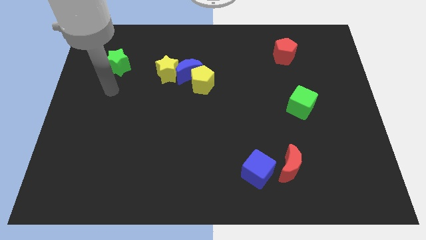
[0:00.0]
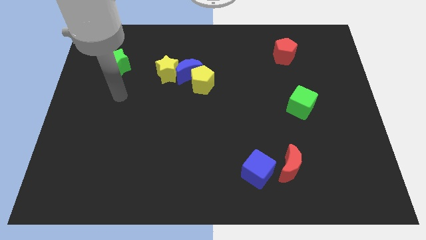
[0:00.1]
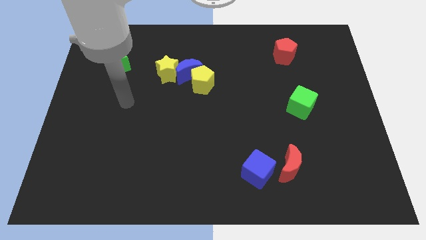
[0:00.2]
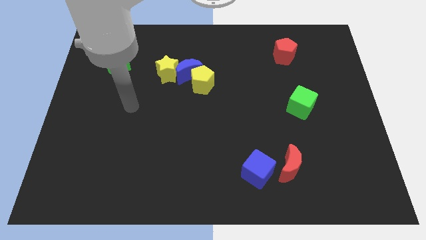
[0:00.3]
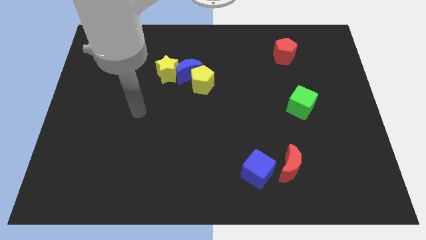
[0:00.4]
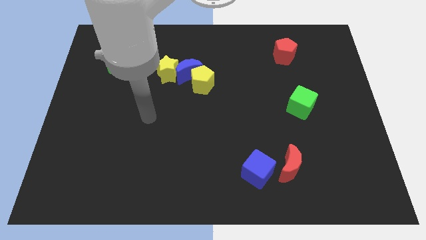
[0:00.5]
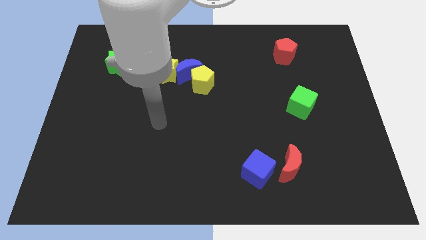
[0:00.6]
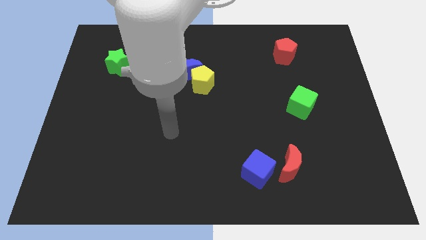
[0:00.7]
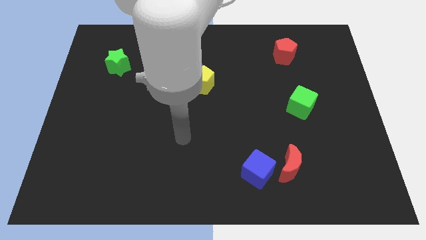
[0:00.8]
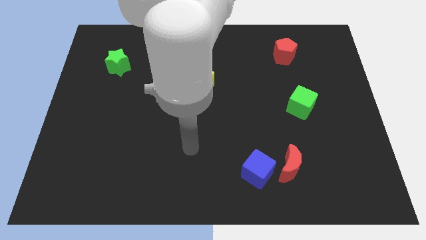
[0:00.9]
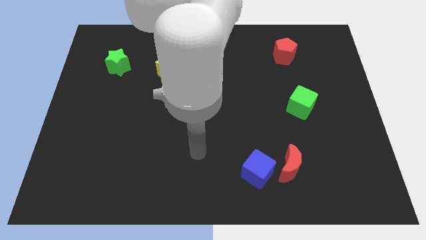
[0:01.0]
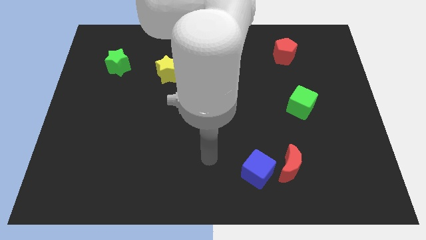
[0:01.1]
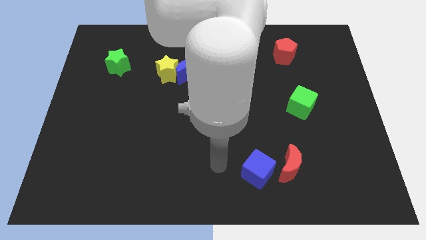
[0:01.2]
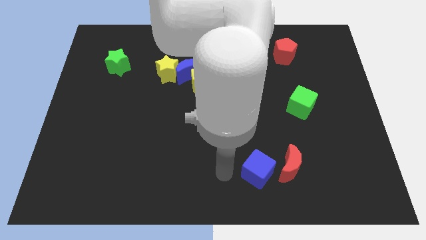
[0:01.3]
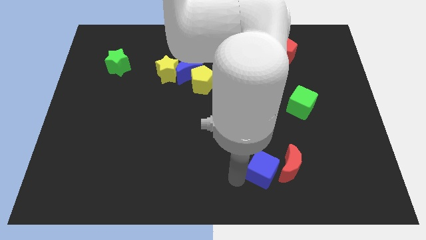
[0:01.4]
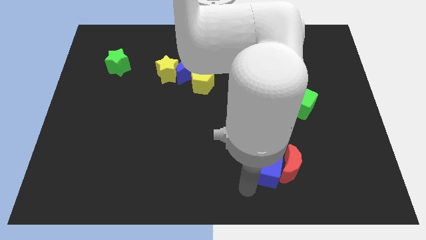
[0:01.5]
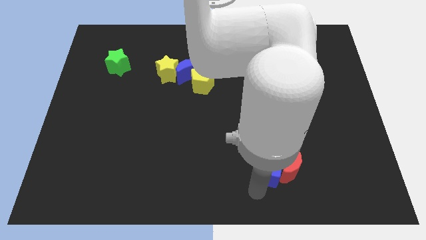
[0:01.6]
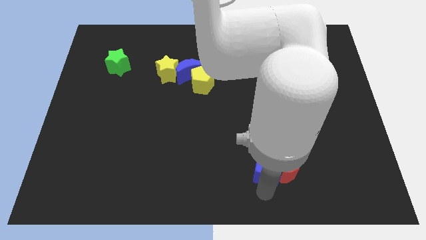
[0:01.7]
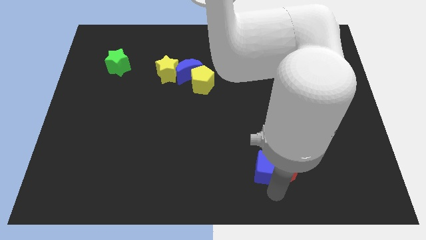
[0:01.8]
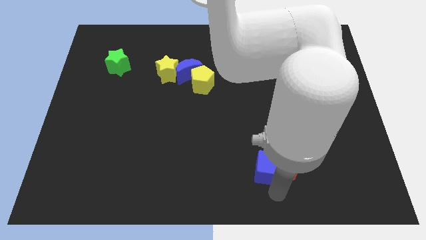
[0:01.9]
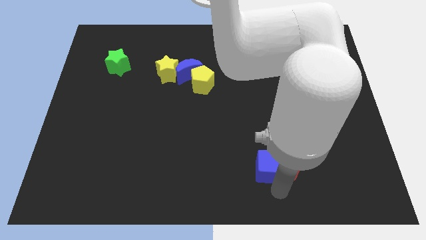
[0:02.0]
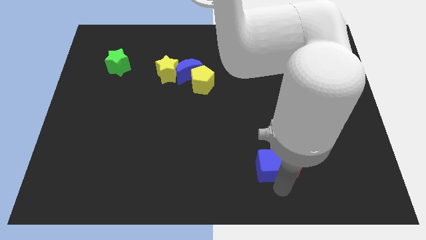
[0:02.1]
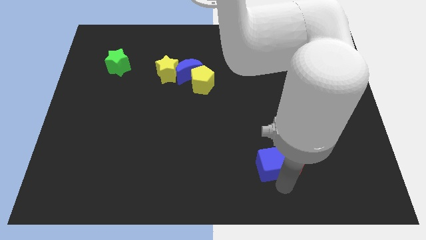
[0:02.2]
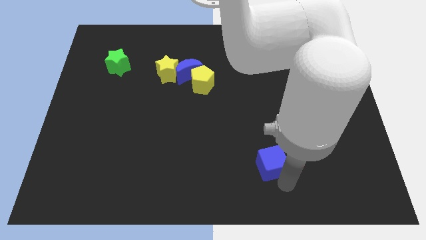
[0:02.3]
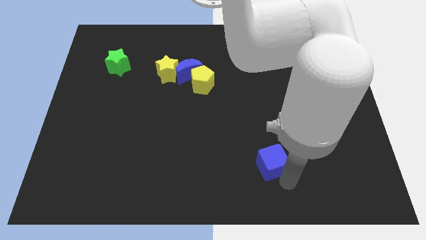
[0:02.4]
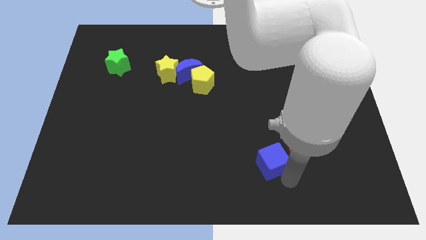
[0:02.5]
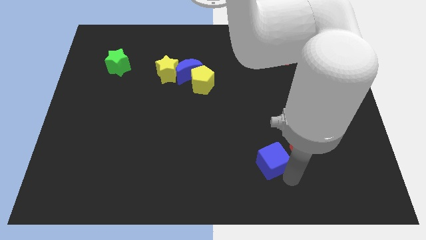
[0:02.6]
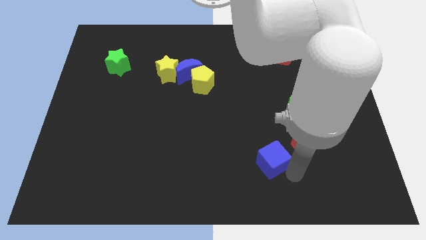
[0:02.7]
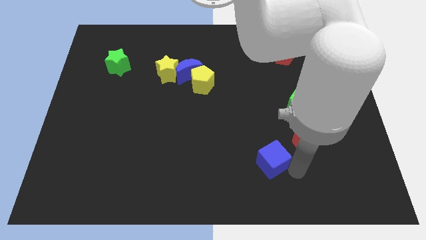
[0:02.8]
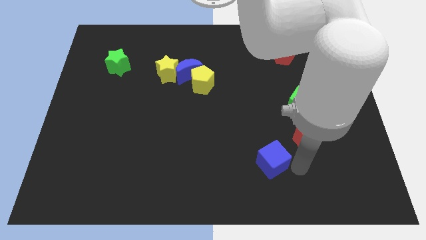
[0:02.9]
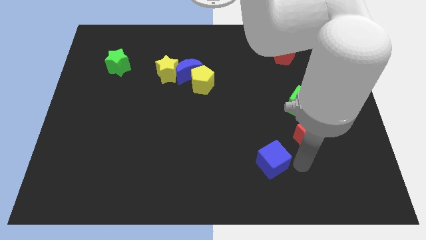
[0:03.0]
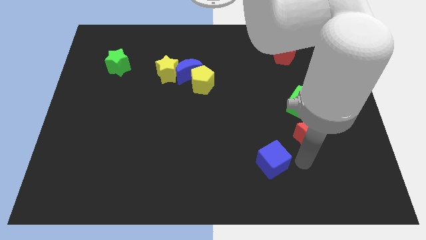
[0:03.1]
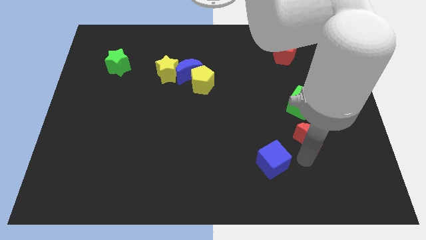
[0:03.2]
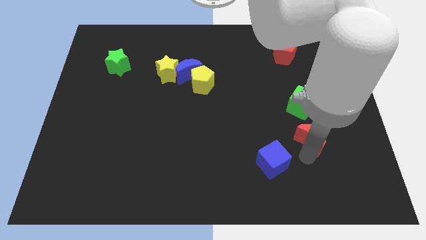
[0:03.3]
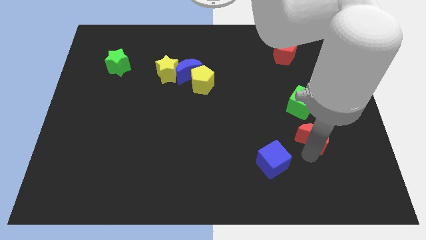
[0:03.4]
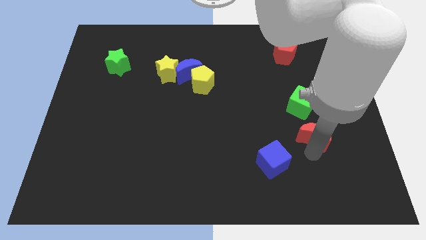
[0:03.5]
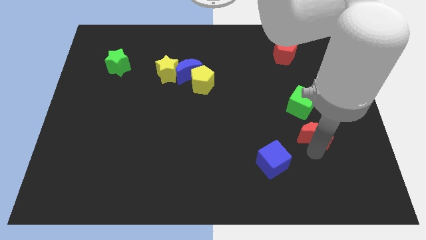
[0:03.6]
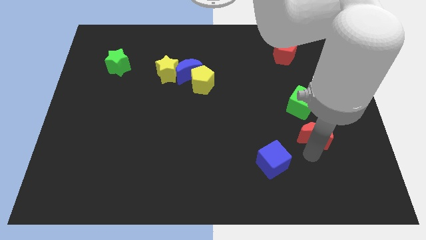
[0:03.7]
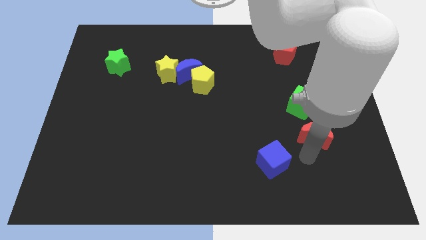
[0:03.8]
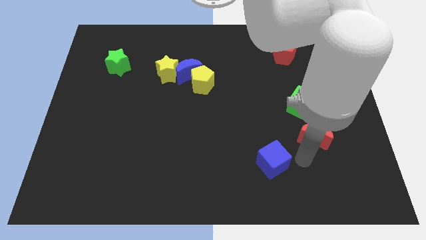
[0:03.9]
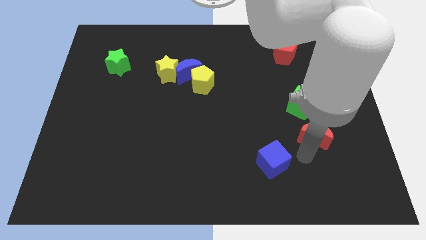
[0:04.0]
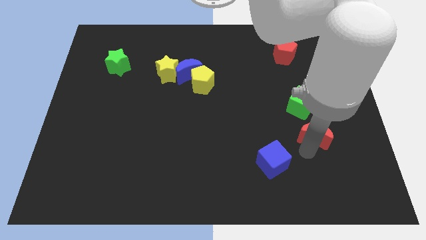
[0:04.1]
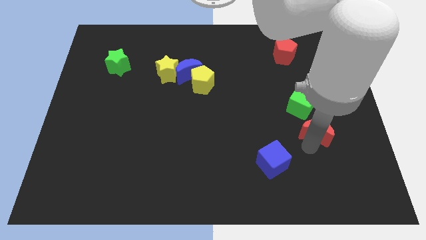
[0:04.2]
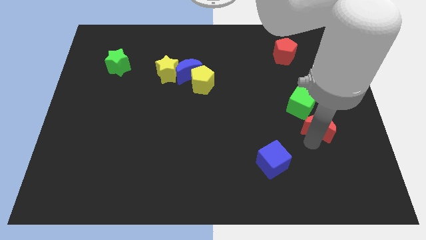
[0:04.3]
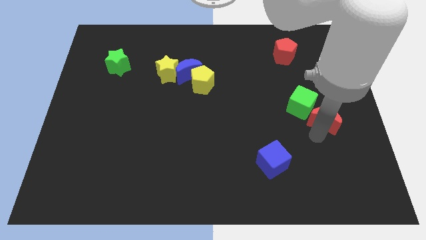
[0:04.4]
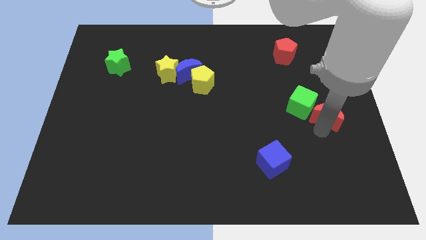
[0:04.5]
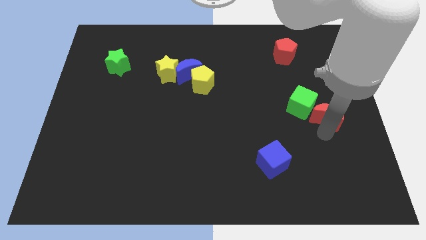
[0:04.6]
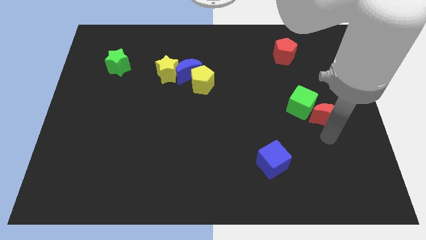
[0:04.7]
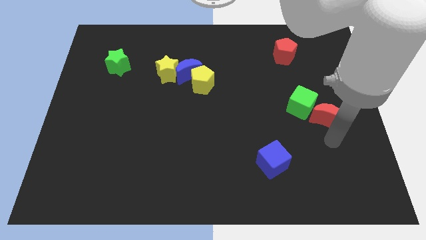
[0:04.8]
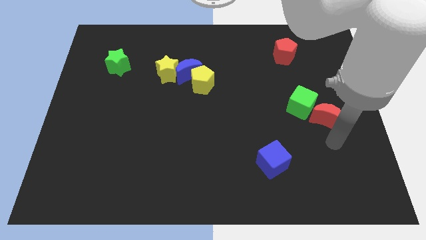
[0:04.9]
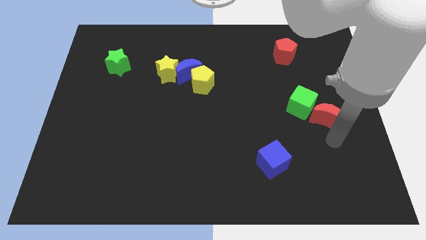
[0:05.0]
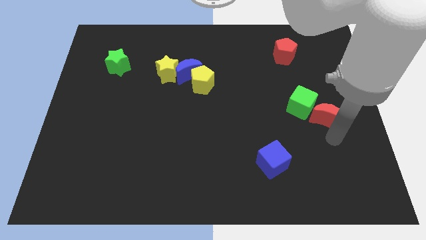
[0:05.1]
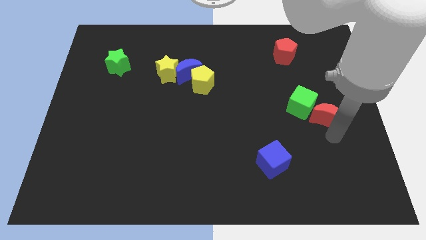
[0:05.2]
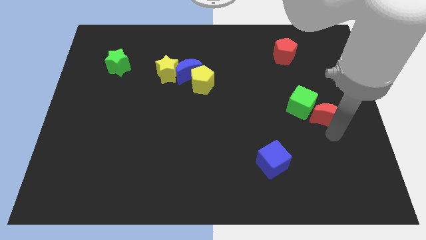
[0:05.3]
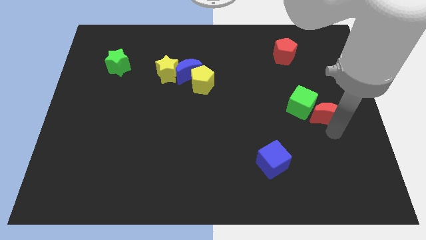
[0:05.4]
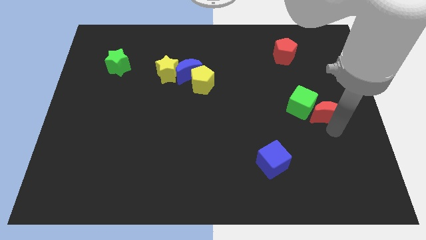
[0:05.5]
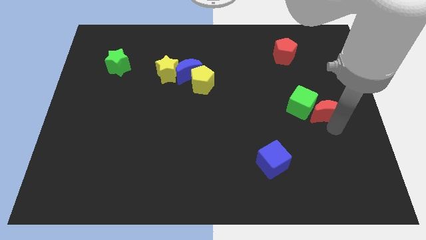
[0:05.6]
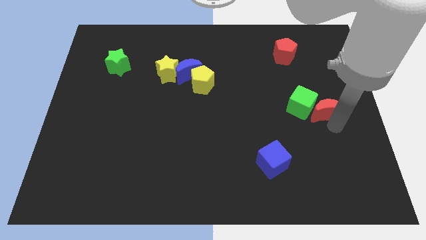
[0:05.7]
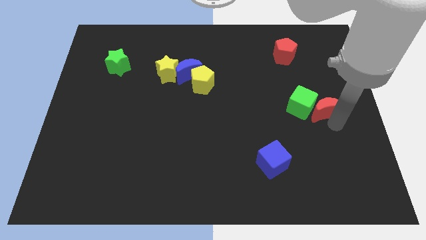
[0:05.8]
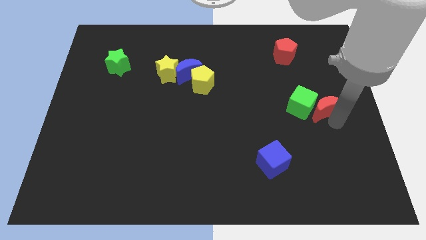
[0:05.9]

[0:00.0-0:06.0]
push the red moon to the top right of the green cube

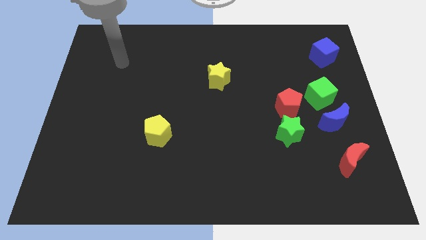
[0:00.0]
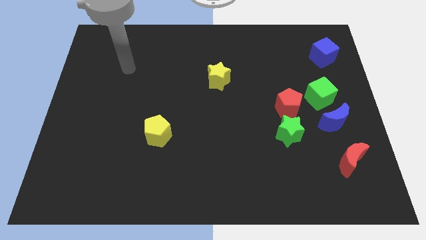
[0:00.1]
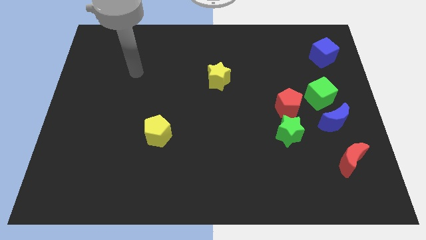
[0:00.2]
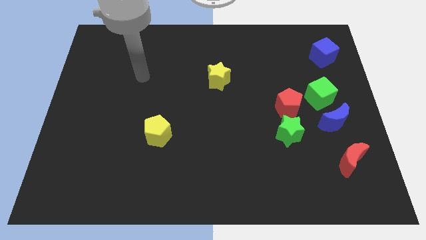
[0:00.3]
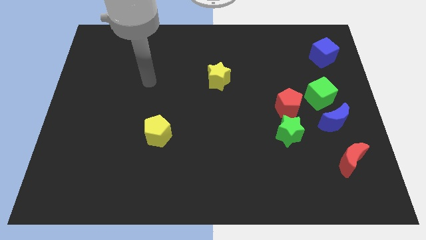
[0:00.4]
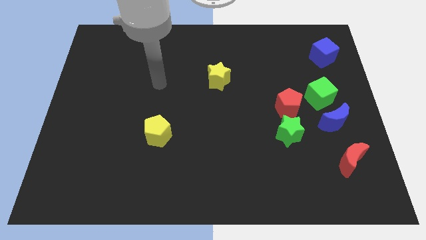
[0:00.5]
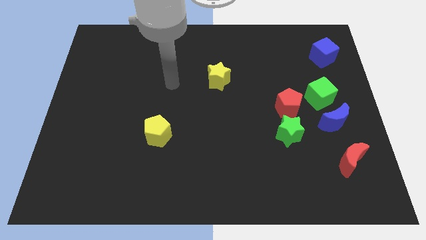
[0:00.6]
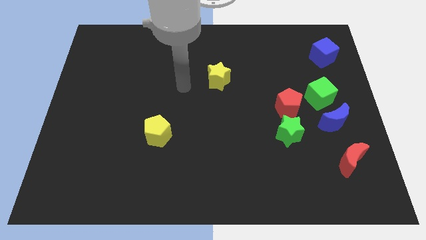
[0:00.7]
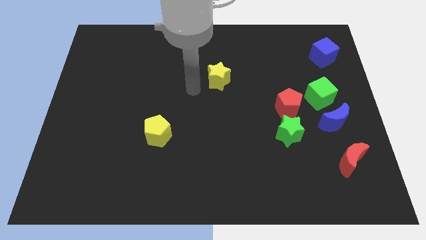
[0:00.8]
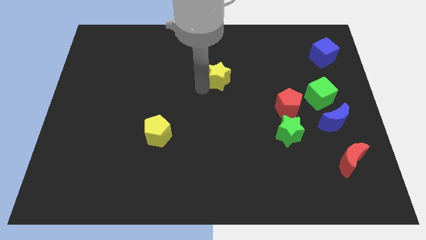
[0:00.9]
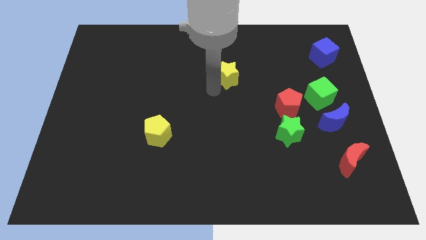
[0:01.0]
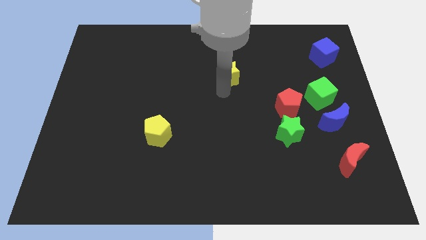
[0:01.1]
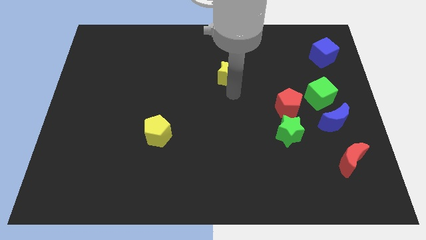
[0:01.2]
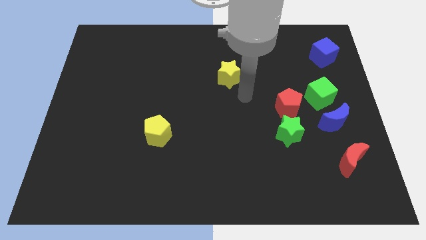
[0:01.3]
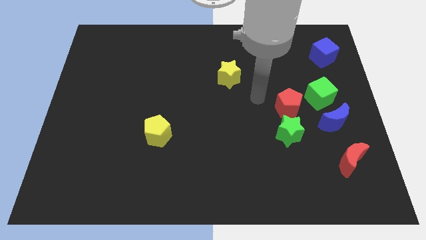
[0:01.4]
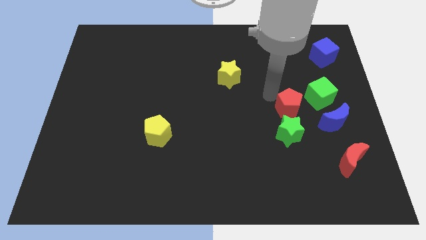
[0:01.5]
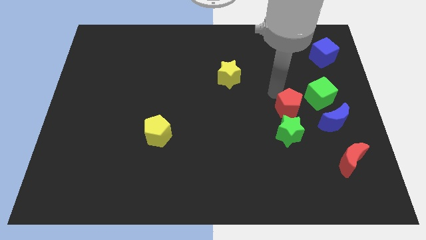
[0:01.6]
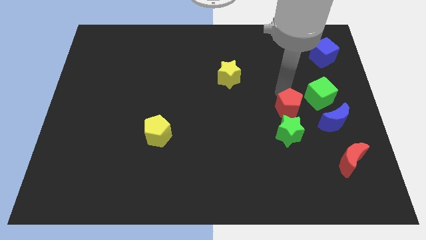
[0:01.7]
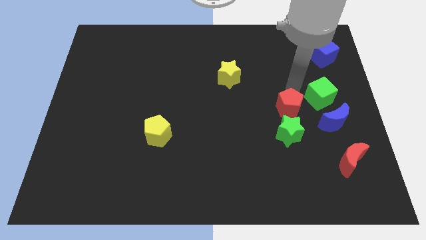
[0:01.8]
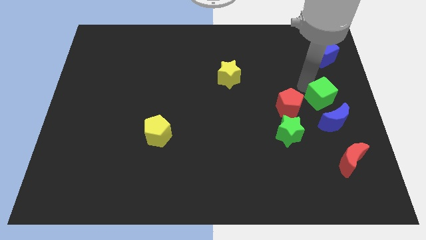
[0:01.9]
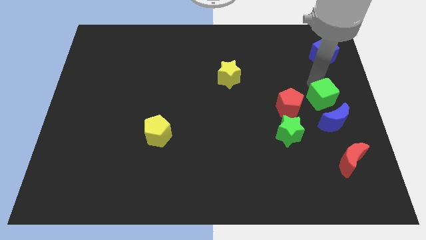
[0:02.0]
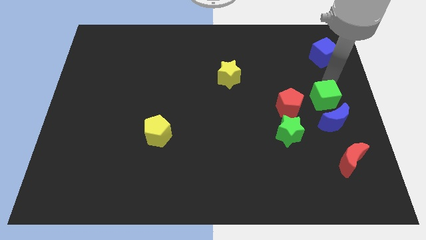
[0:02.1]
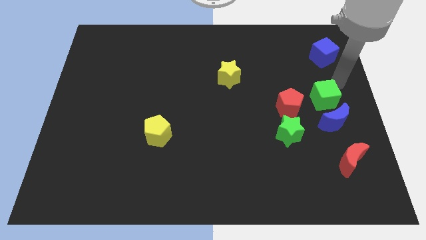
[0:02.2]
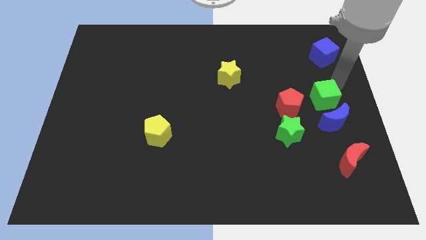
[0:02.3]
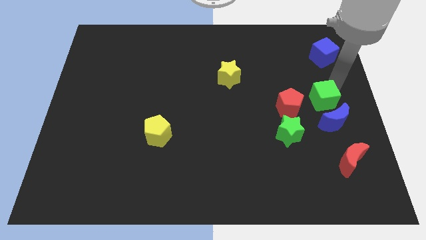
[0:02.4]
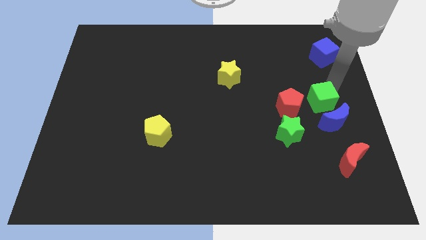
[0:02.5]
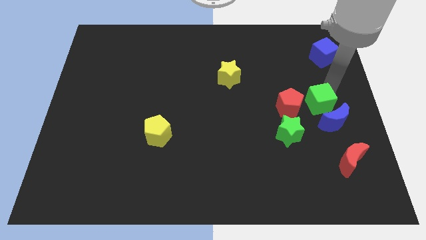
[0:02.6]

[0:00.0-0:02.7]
slide the green cube to the top right of the green star
